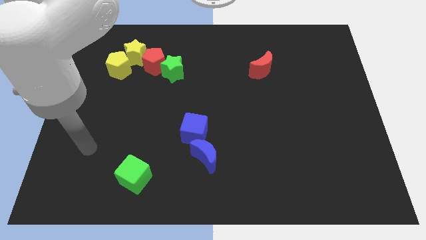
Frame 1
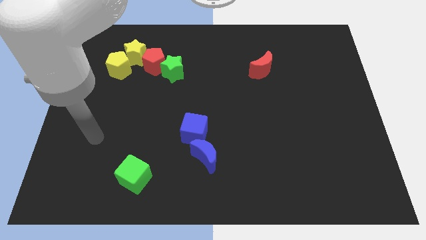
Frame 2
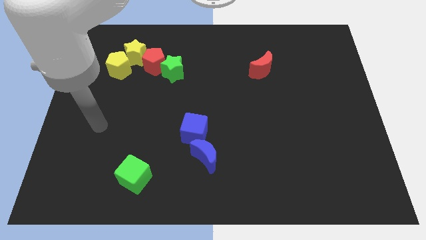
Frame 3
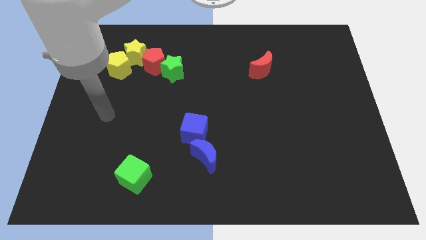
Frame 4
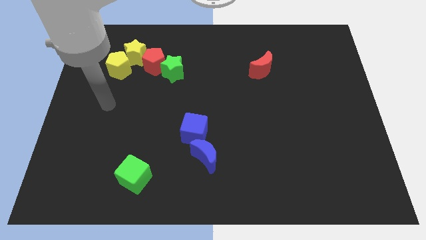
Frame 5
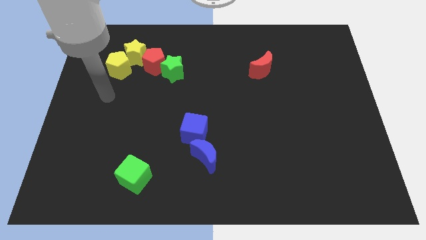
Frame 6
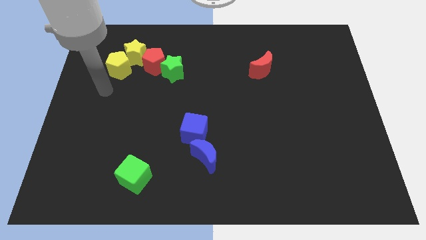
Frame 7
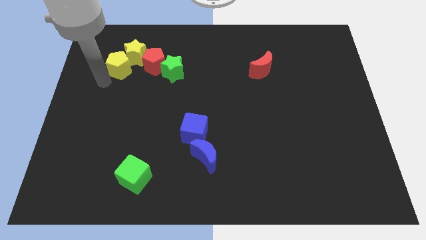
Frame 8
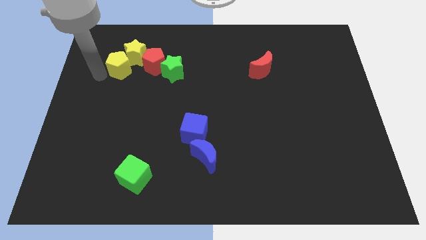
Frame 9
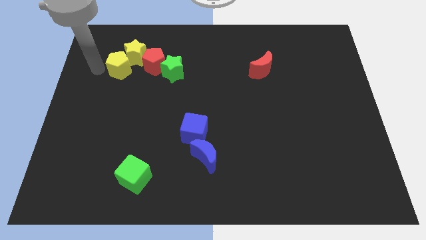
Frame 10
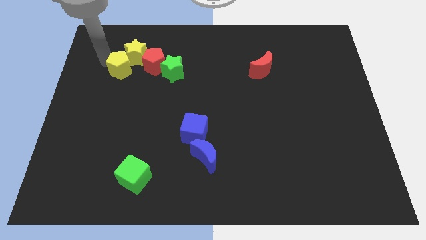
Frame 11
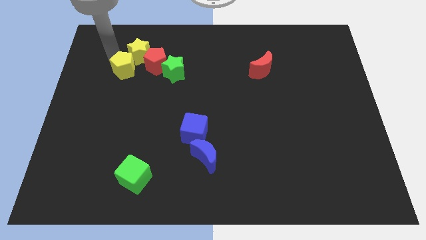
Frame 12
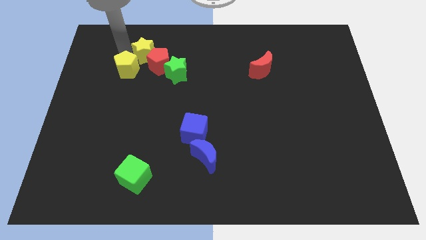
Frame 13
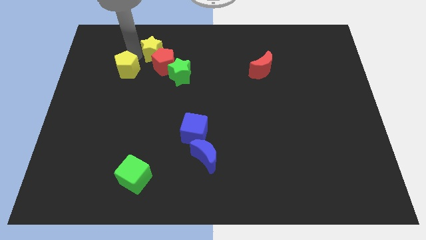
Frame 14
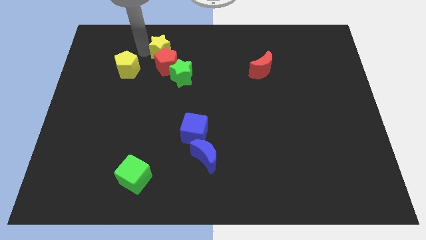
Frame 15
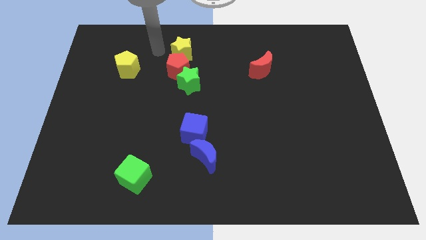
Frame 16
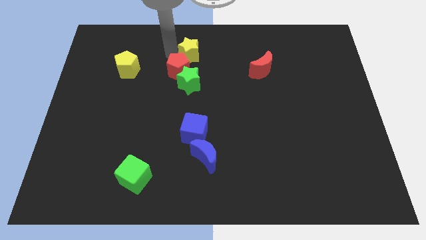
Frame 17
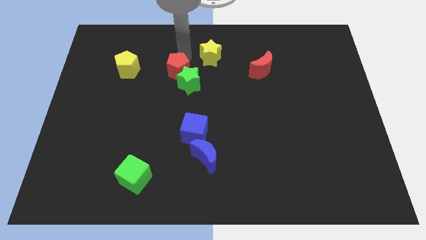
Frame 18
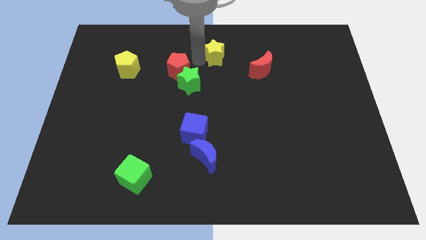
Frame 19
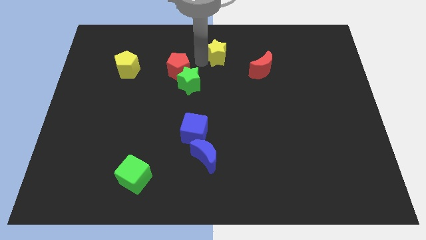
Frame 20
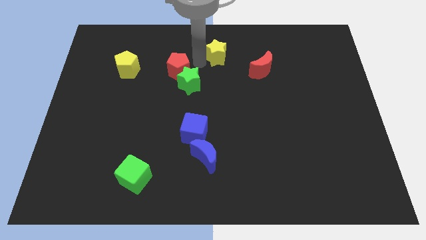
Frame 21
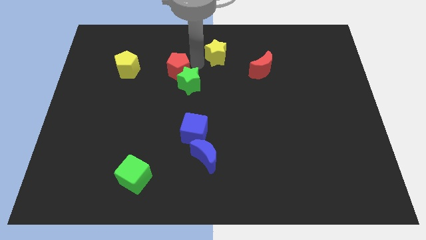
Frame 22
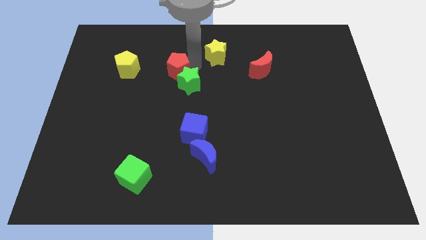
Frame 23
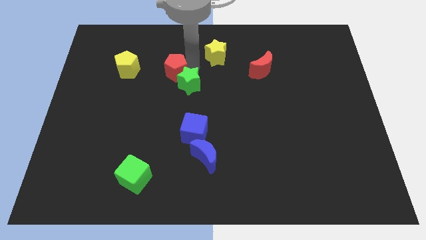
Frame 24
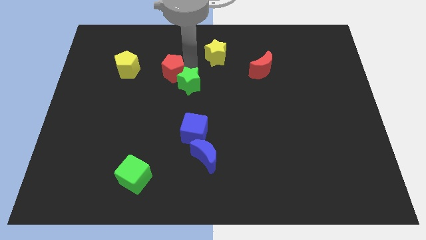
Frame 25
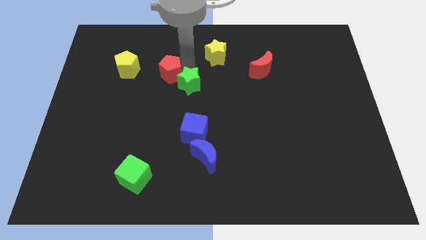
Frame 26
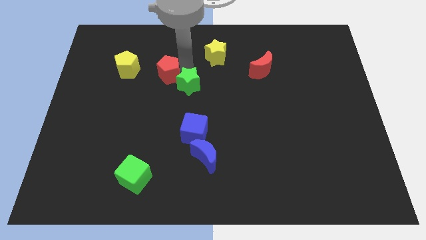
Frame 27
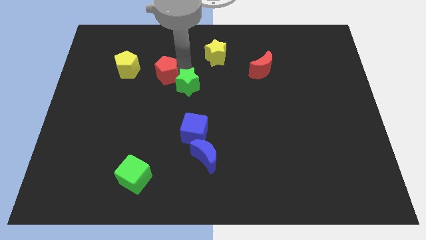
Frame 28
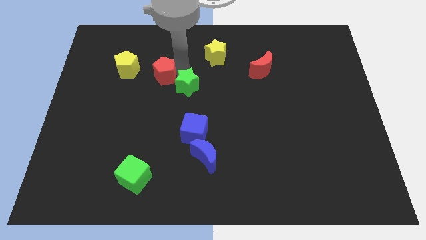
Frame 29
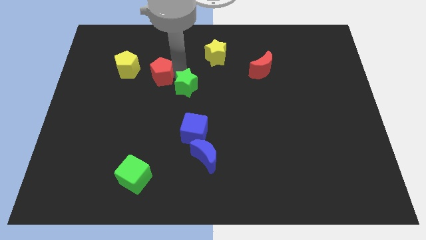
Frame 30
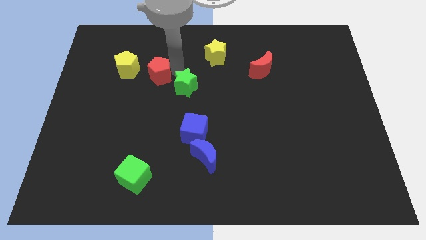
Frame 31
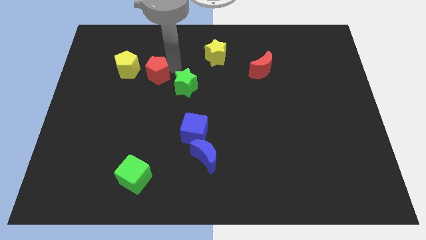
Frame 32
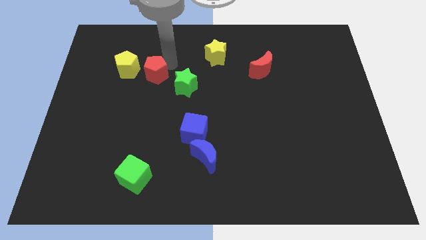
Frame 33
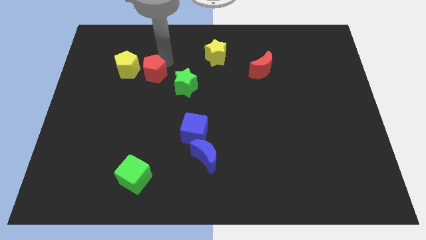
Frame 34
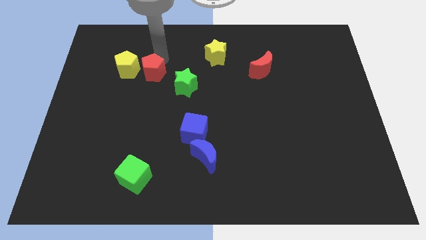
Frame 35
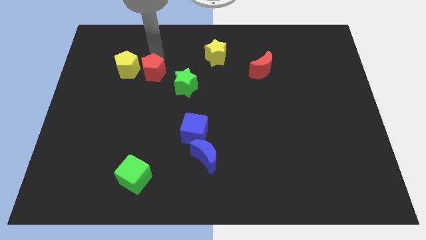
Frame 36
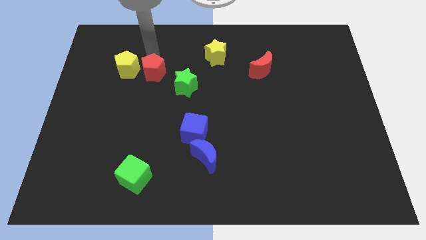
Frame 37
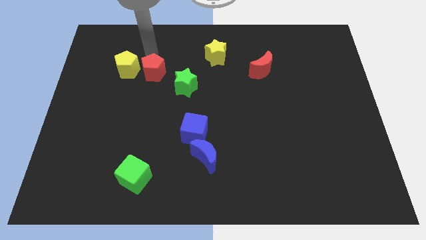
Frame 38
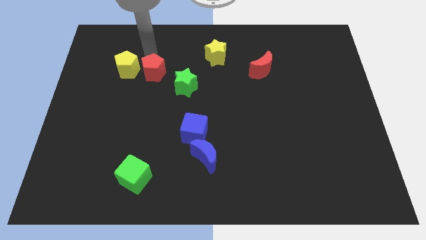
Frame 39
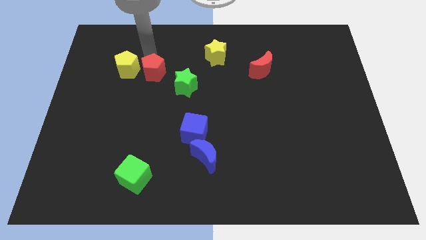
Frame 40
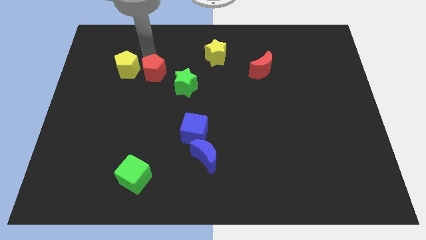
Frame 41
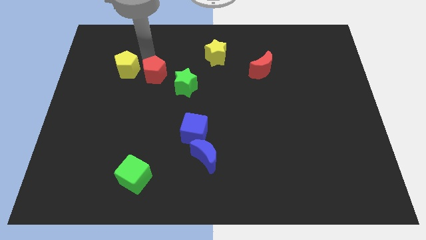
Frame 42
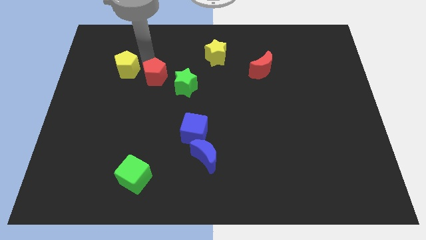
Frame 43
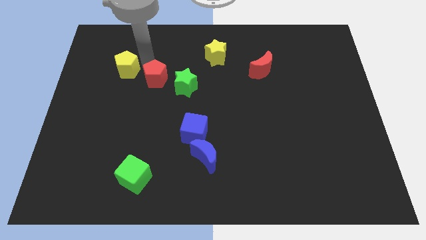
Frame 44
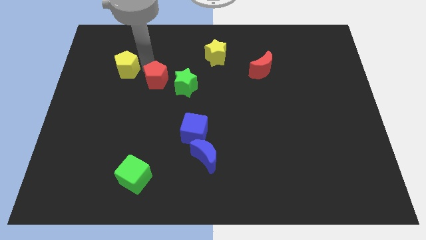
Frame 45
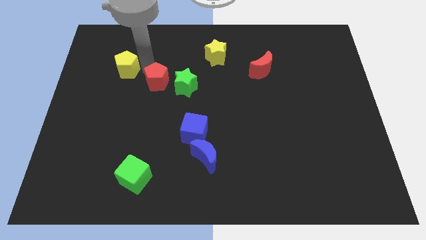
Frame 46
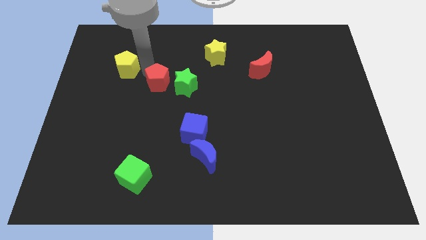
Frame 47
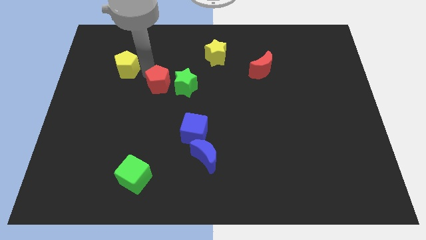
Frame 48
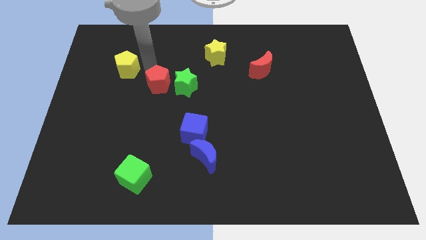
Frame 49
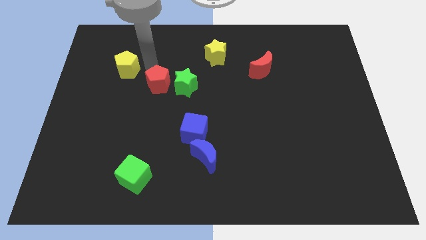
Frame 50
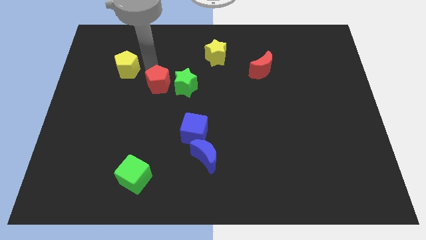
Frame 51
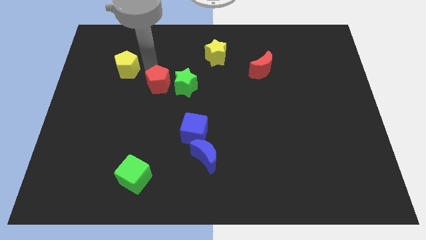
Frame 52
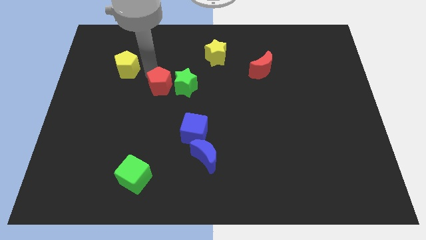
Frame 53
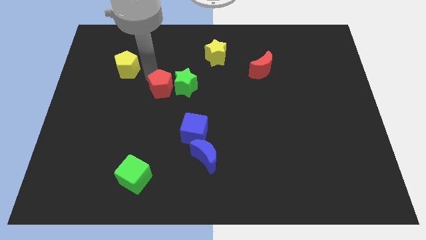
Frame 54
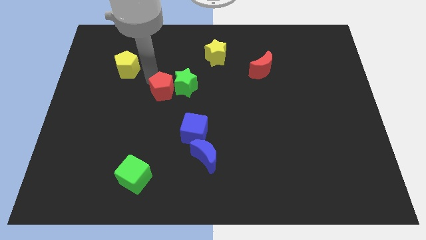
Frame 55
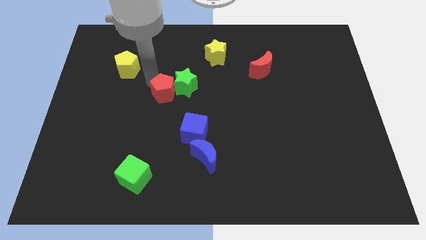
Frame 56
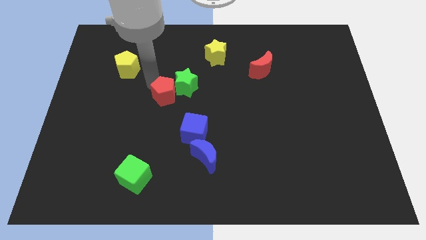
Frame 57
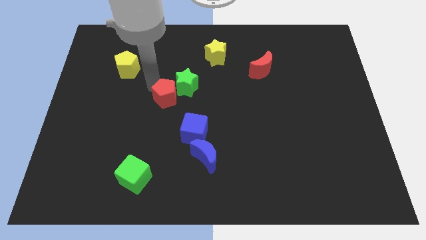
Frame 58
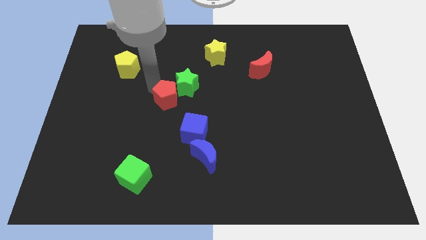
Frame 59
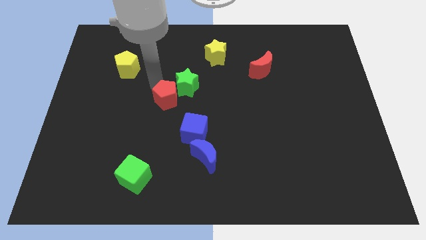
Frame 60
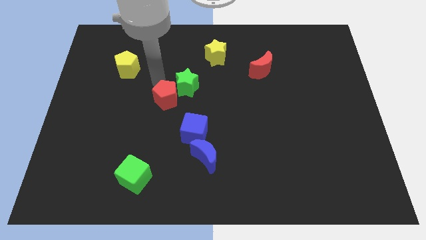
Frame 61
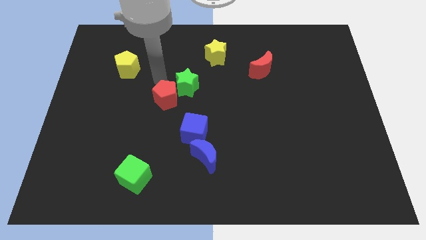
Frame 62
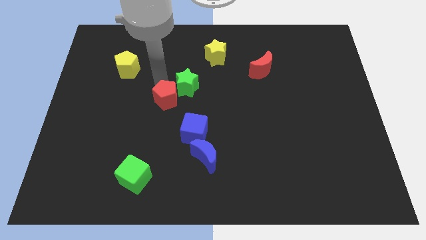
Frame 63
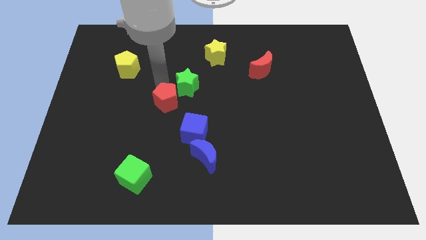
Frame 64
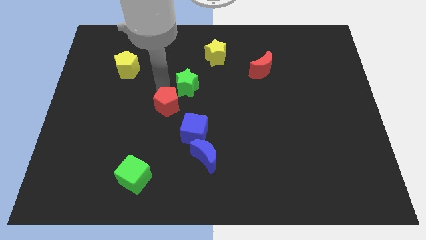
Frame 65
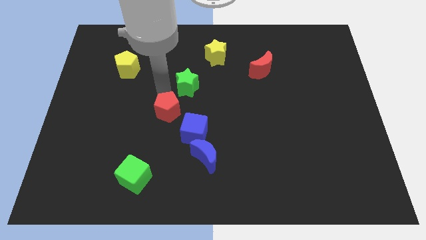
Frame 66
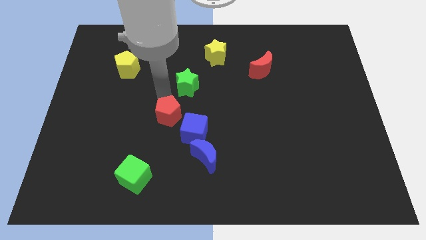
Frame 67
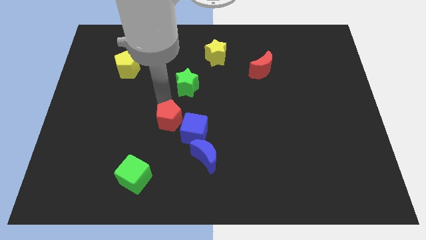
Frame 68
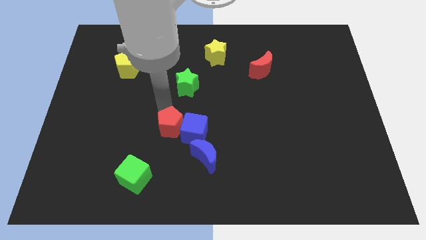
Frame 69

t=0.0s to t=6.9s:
push the red pentagon towards the blue cube
